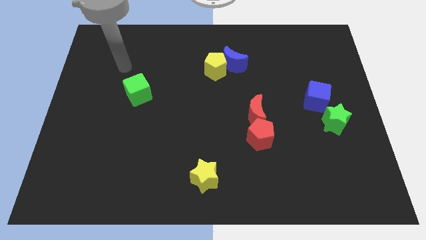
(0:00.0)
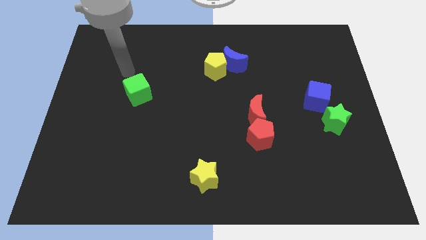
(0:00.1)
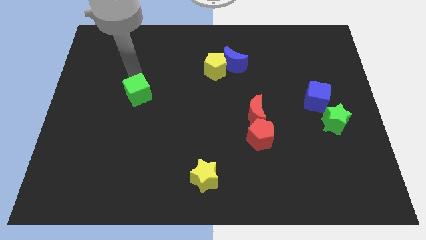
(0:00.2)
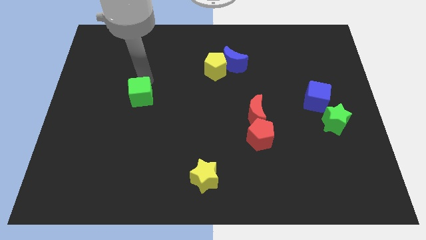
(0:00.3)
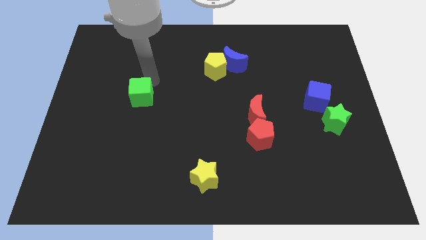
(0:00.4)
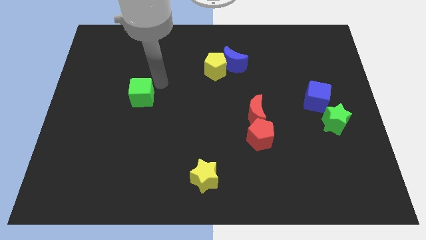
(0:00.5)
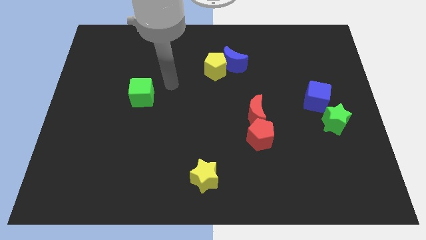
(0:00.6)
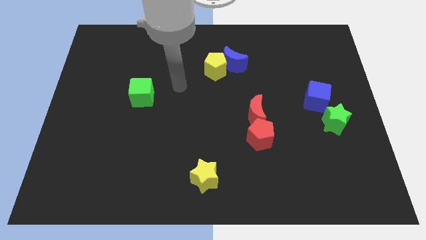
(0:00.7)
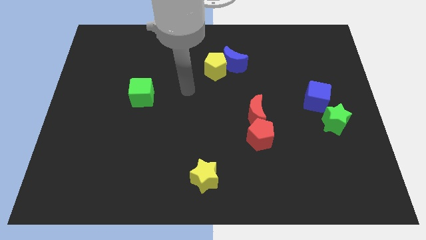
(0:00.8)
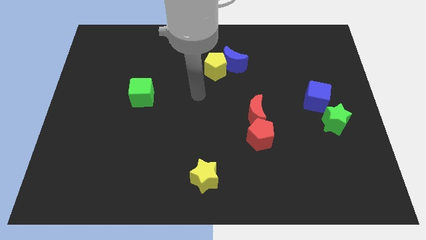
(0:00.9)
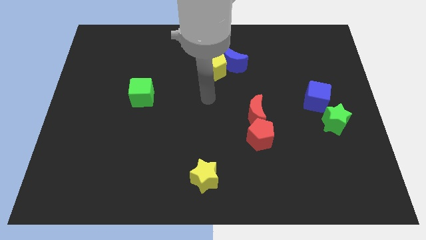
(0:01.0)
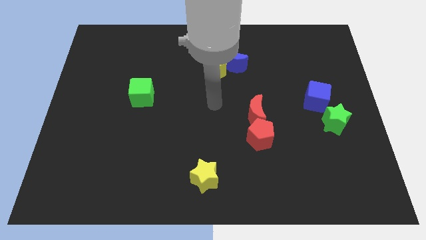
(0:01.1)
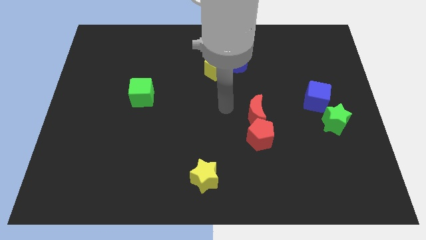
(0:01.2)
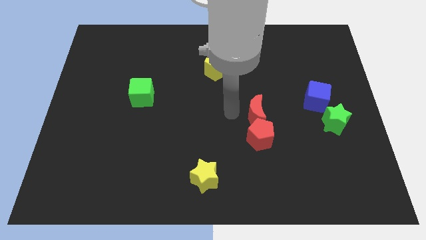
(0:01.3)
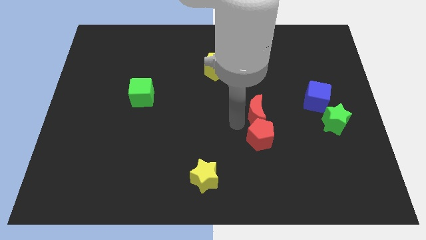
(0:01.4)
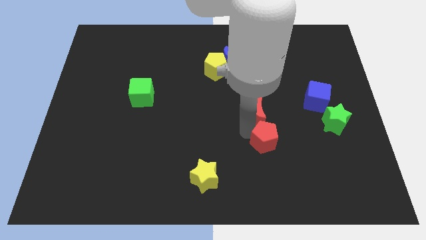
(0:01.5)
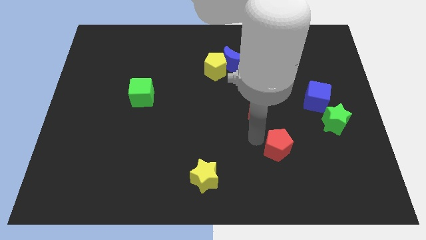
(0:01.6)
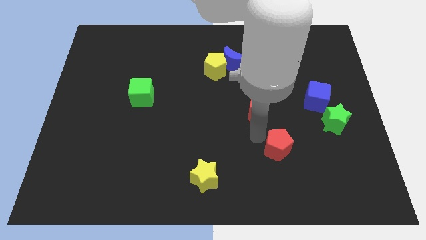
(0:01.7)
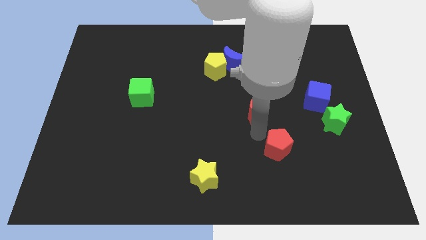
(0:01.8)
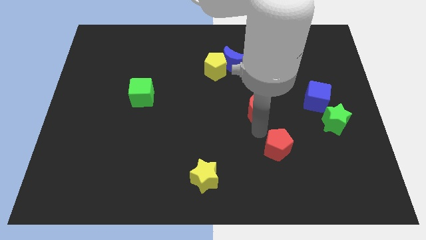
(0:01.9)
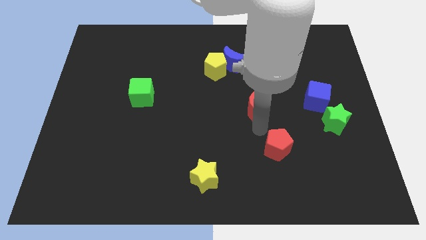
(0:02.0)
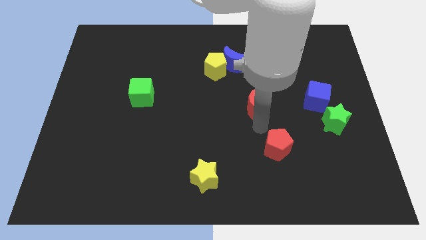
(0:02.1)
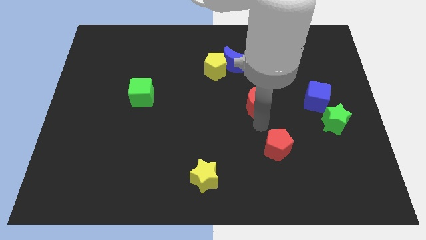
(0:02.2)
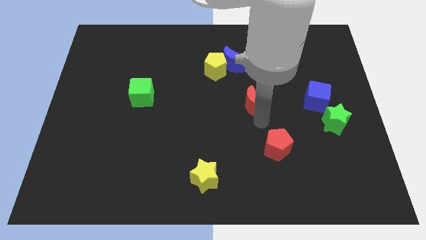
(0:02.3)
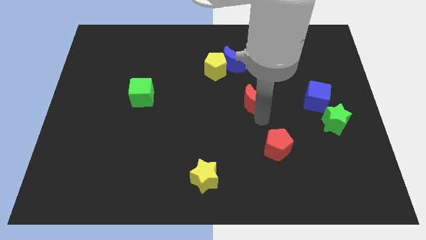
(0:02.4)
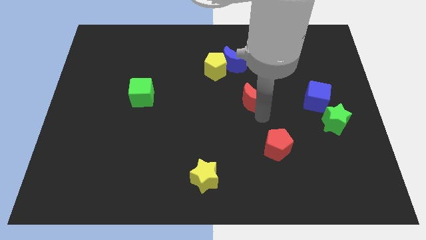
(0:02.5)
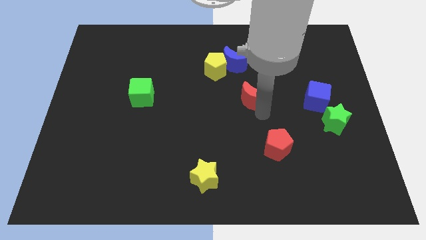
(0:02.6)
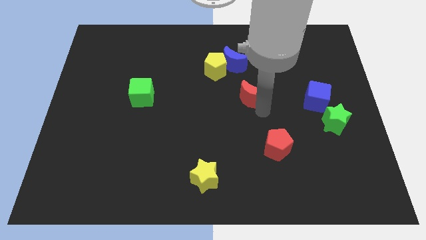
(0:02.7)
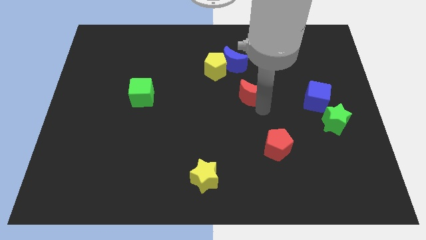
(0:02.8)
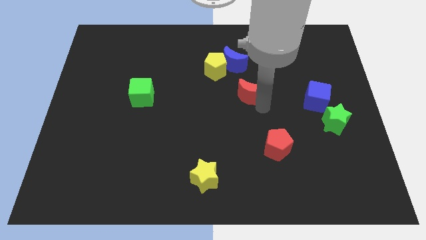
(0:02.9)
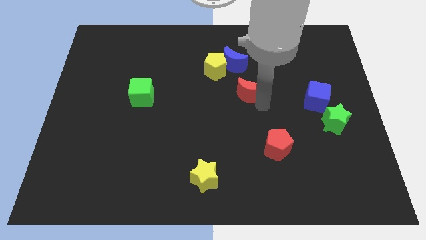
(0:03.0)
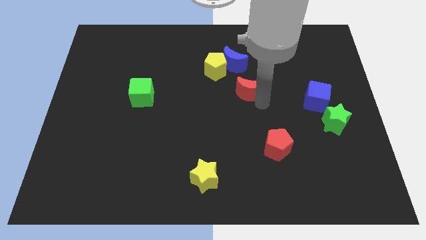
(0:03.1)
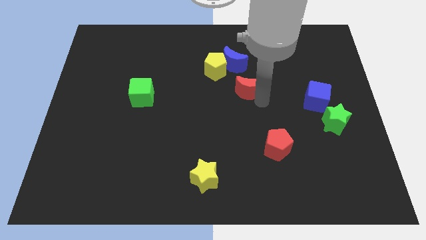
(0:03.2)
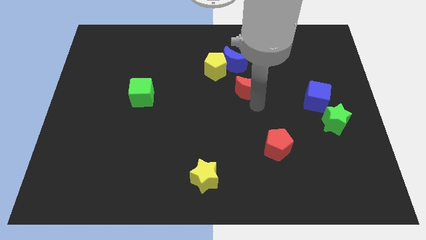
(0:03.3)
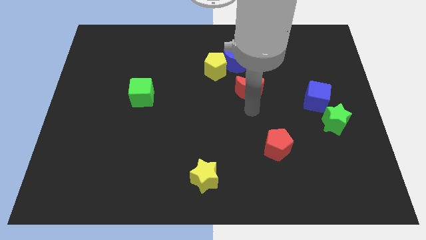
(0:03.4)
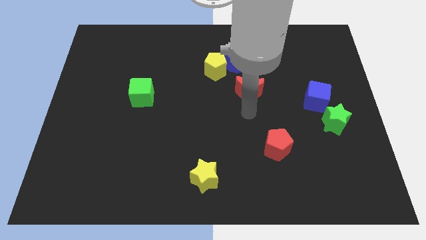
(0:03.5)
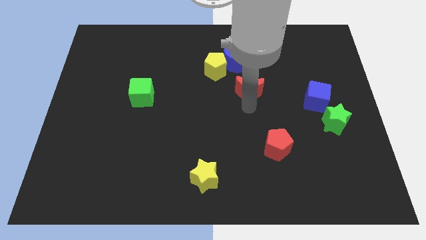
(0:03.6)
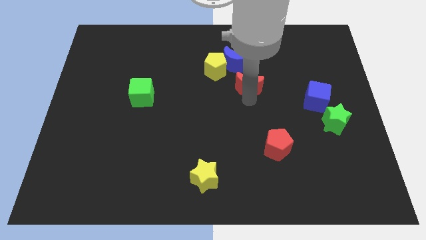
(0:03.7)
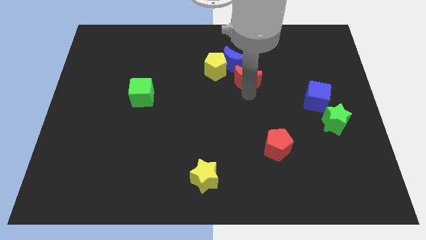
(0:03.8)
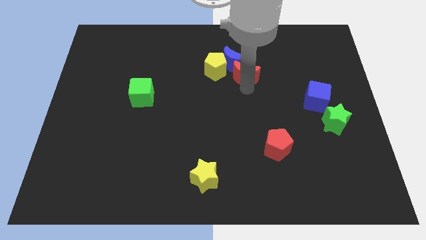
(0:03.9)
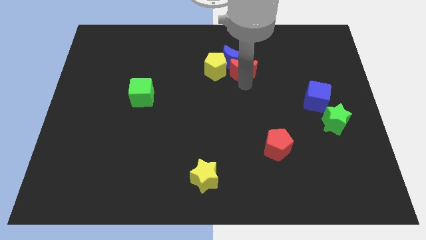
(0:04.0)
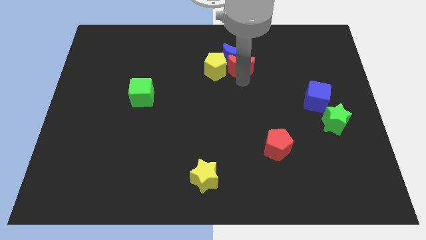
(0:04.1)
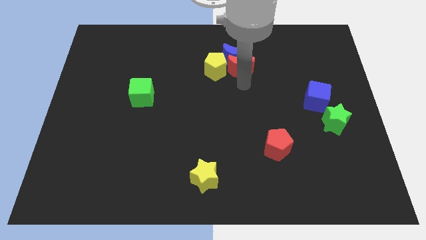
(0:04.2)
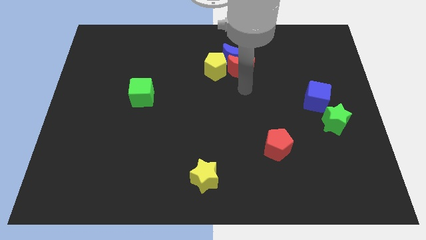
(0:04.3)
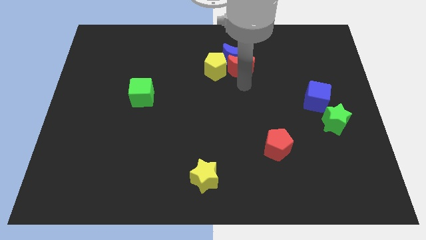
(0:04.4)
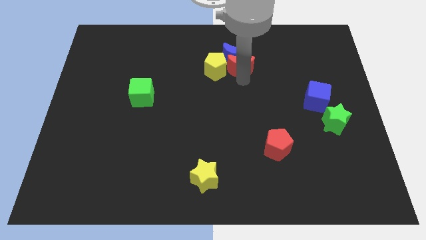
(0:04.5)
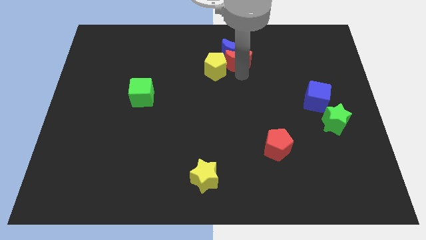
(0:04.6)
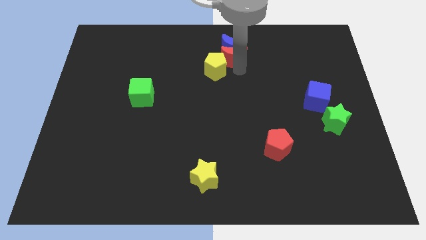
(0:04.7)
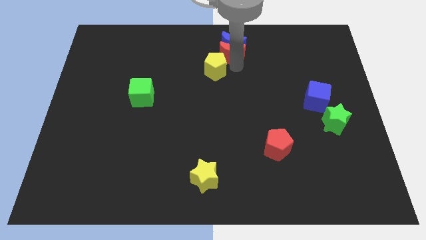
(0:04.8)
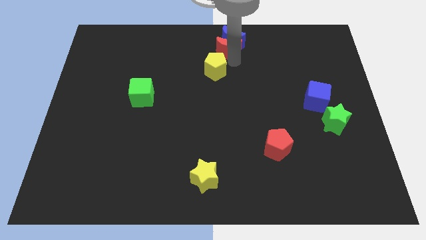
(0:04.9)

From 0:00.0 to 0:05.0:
move the red moon to the top

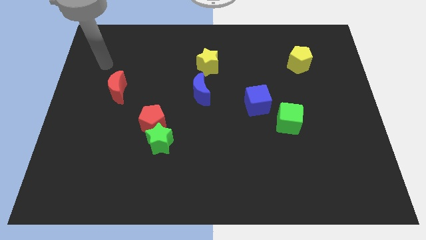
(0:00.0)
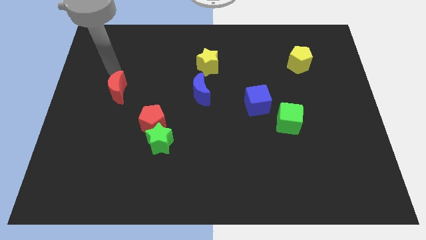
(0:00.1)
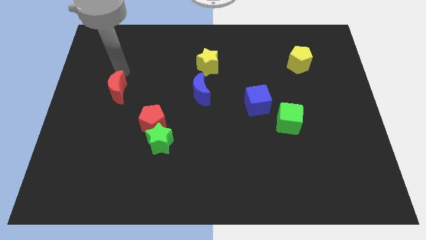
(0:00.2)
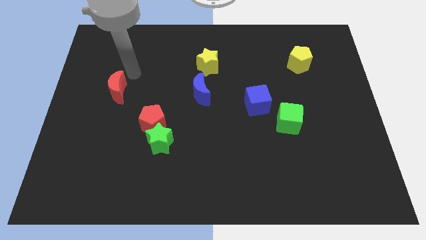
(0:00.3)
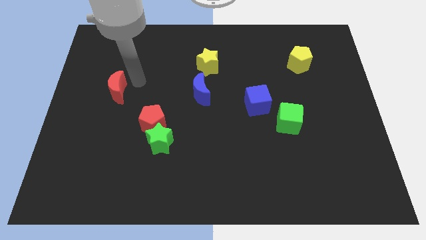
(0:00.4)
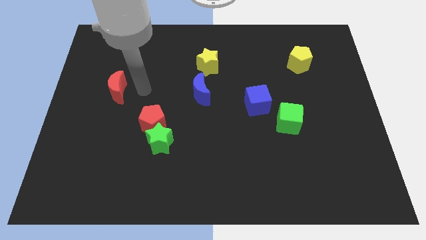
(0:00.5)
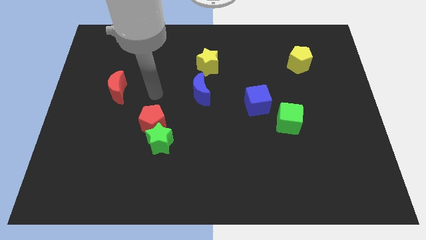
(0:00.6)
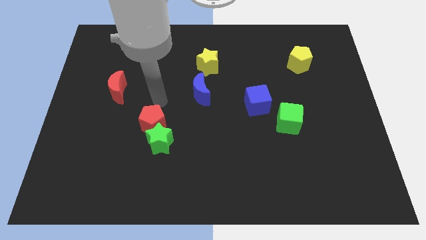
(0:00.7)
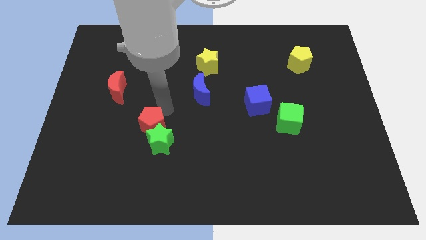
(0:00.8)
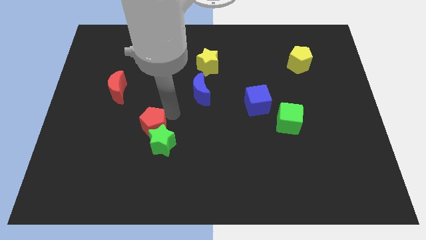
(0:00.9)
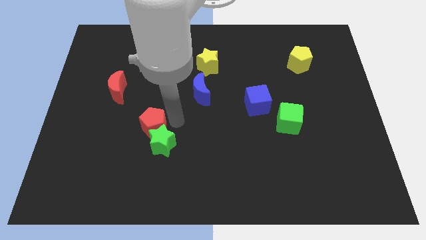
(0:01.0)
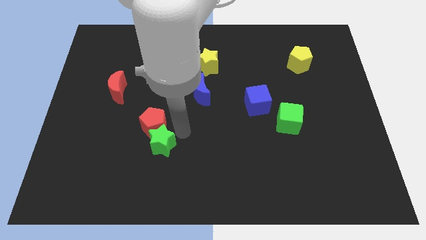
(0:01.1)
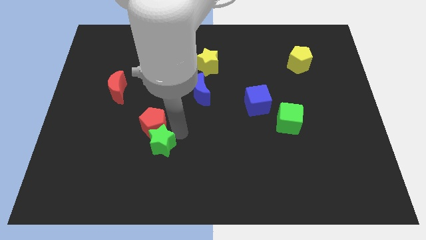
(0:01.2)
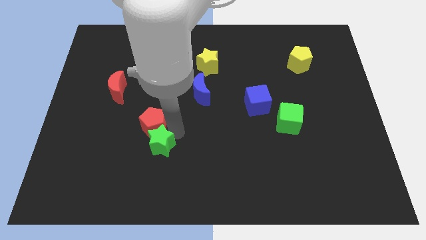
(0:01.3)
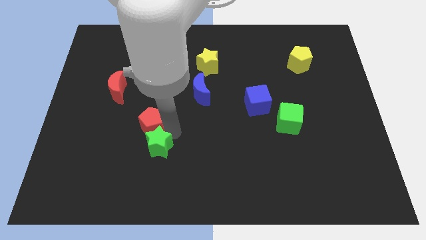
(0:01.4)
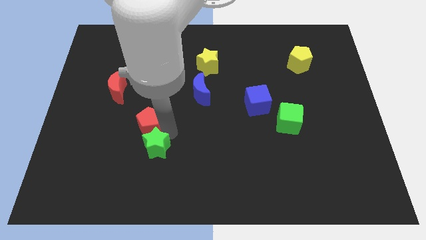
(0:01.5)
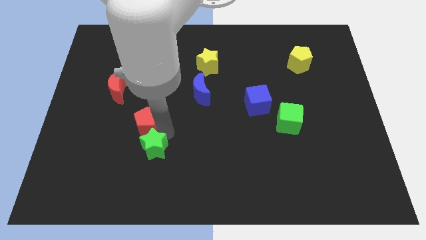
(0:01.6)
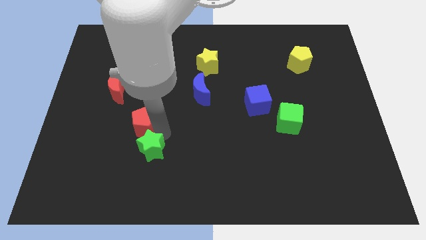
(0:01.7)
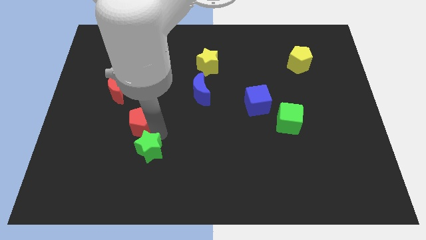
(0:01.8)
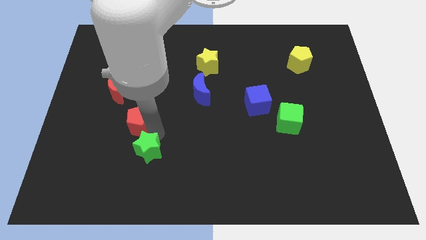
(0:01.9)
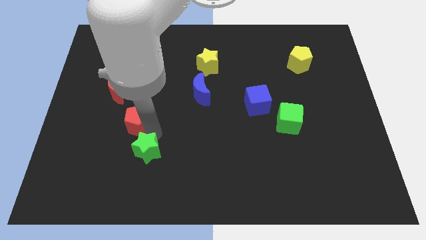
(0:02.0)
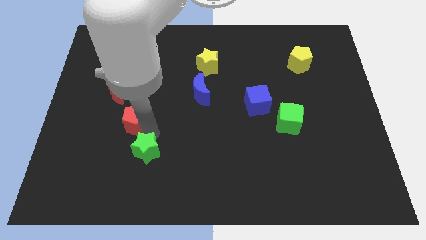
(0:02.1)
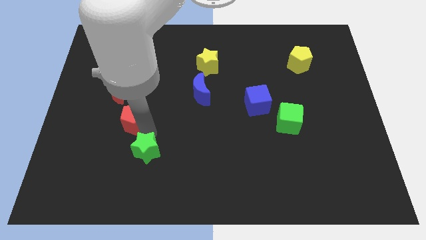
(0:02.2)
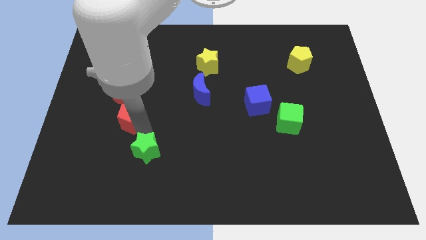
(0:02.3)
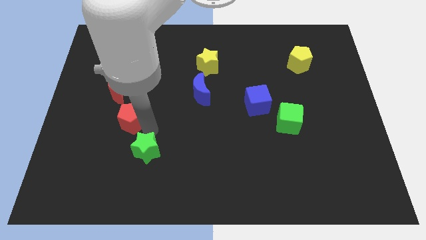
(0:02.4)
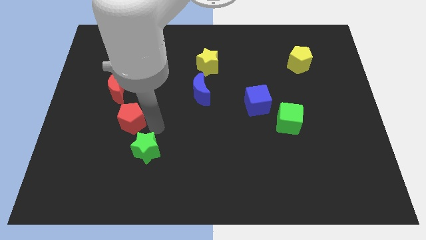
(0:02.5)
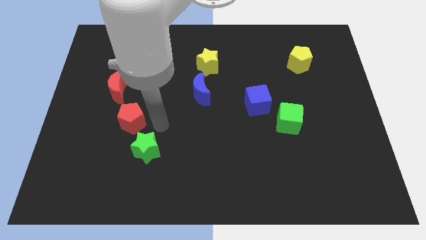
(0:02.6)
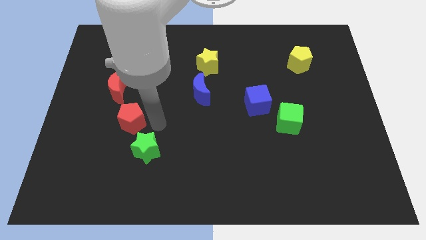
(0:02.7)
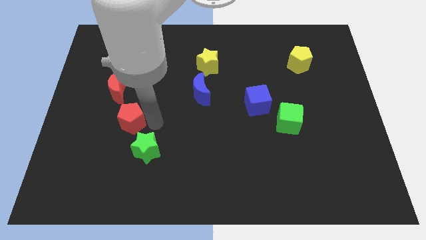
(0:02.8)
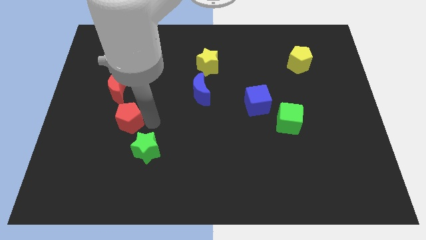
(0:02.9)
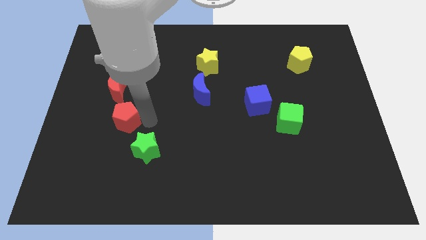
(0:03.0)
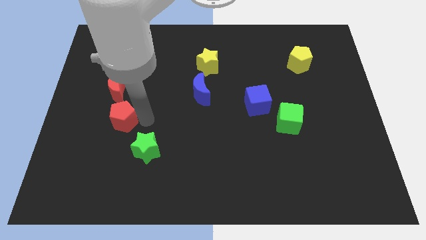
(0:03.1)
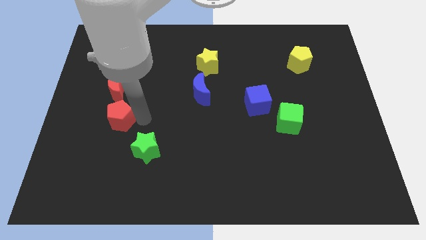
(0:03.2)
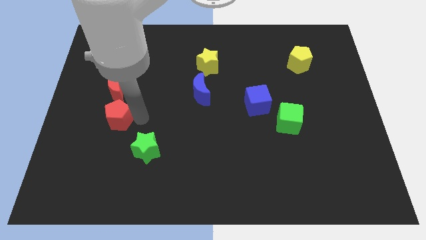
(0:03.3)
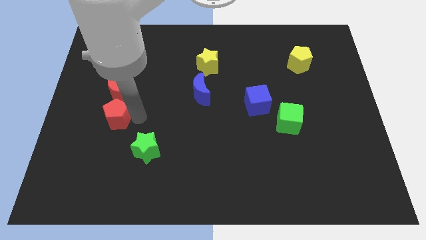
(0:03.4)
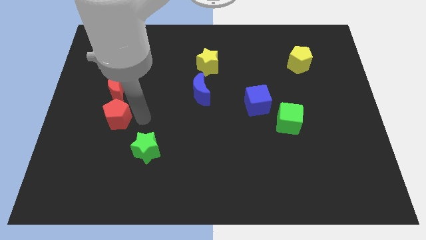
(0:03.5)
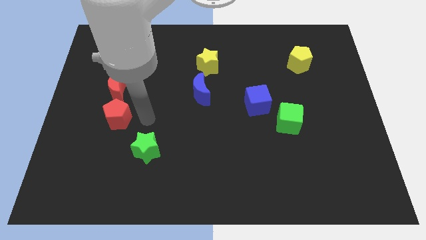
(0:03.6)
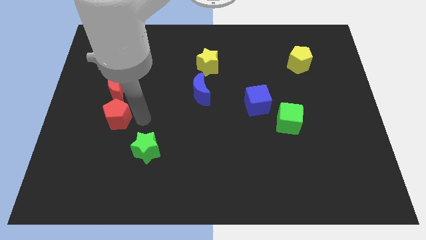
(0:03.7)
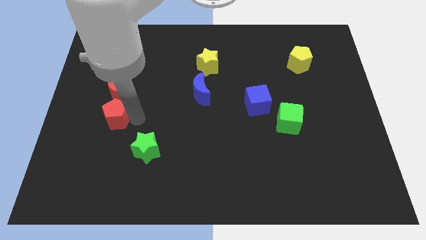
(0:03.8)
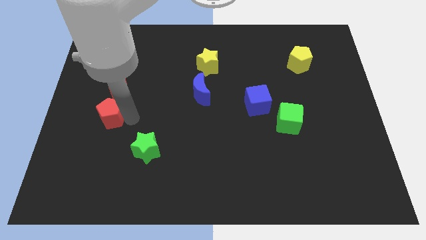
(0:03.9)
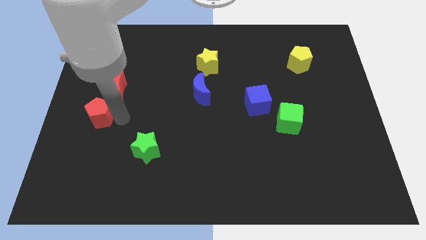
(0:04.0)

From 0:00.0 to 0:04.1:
push the red pentagon to the center left
